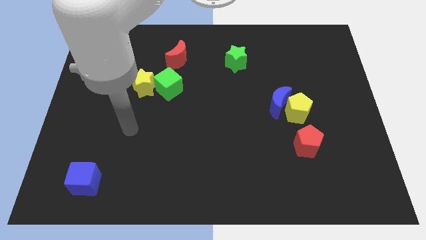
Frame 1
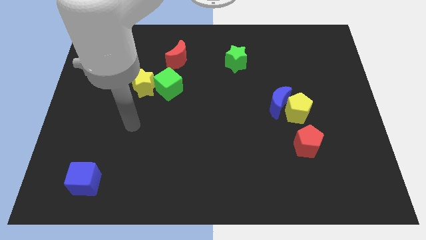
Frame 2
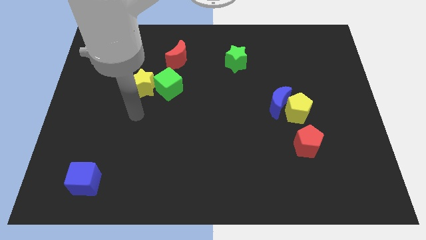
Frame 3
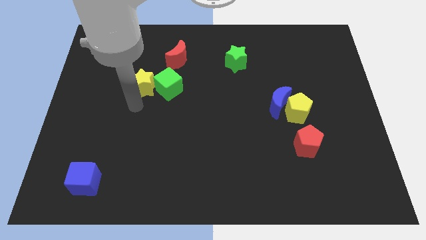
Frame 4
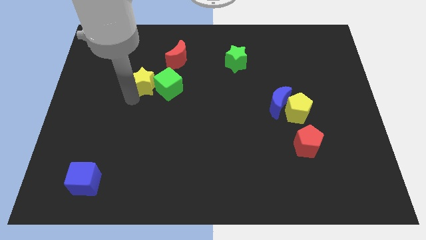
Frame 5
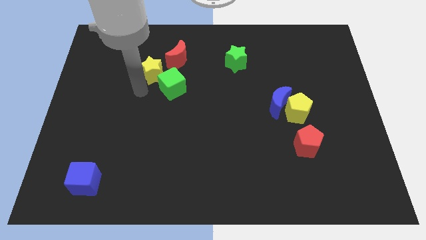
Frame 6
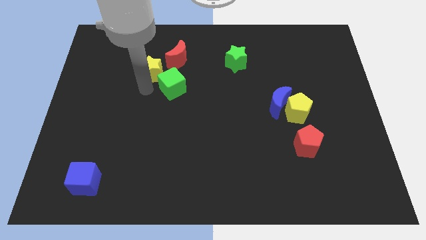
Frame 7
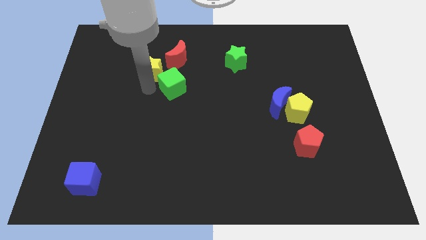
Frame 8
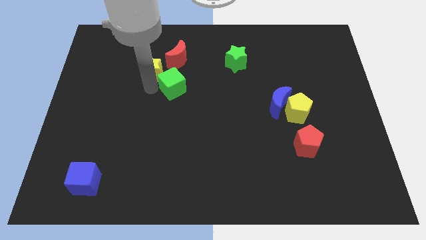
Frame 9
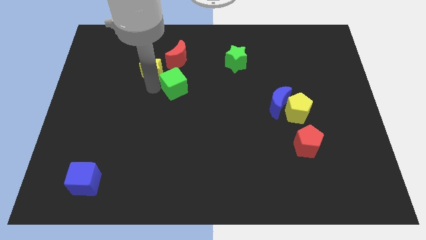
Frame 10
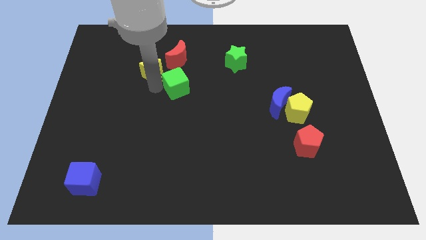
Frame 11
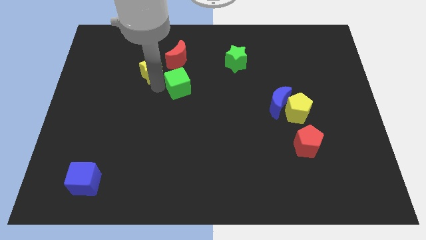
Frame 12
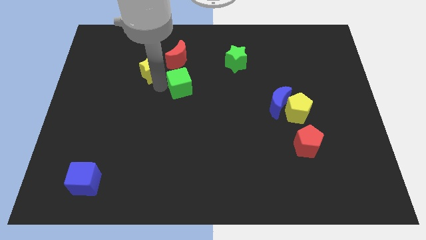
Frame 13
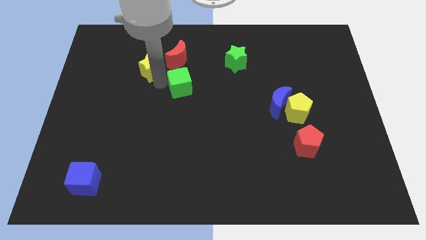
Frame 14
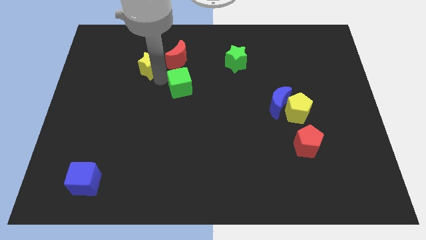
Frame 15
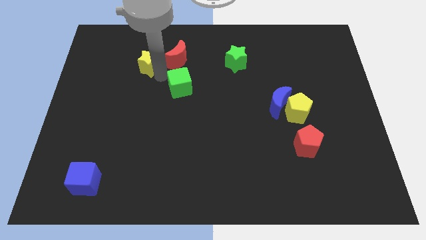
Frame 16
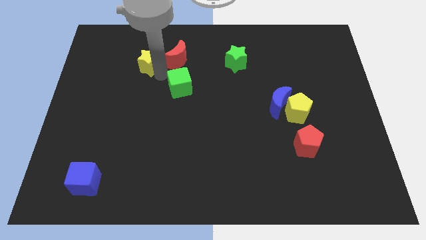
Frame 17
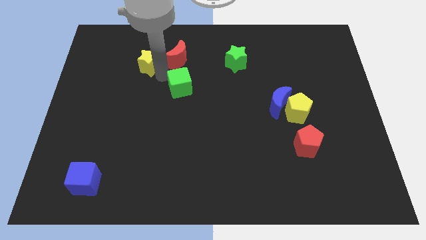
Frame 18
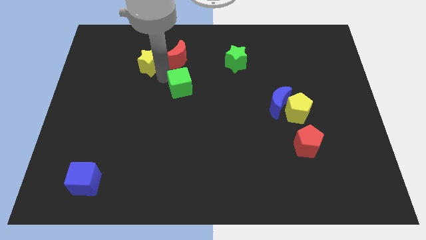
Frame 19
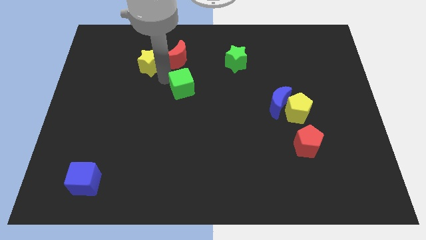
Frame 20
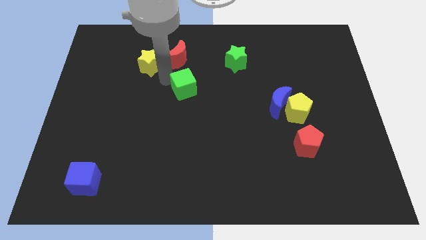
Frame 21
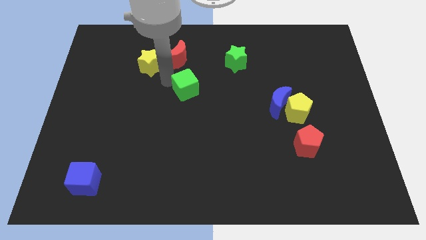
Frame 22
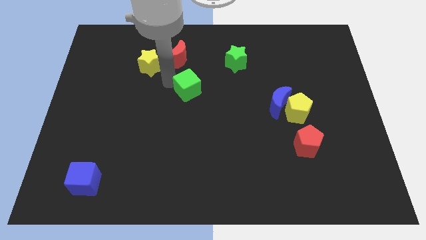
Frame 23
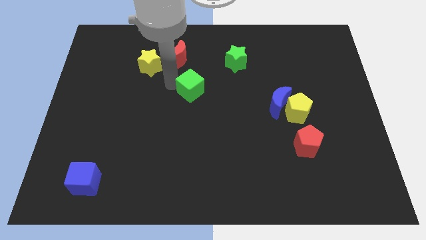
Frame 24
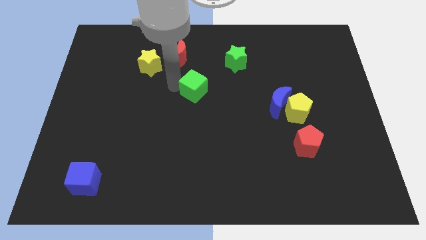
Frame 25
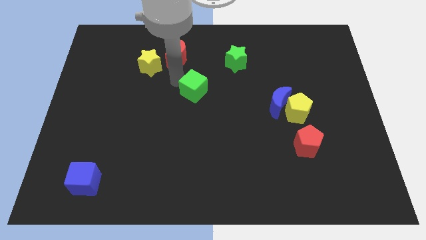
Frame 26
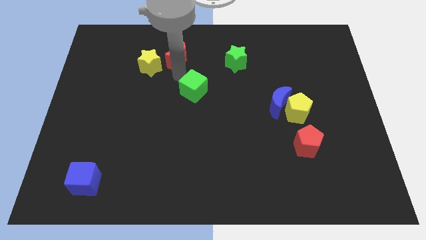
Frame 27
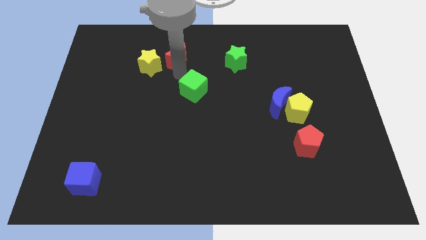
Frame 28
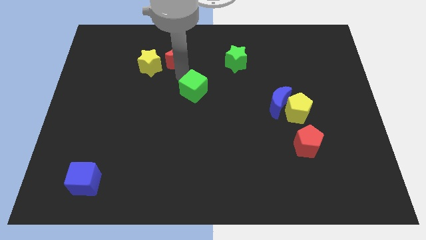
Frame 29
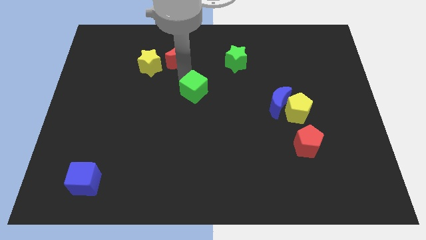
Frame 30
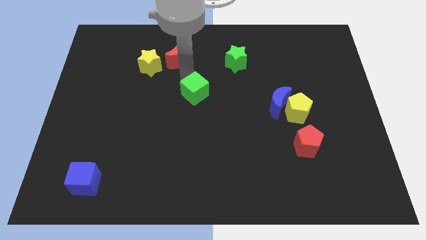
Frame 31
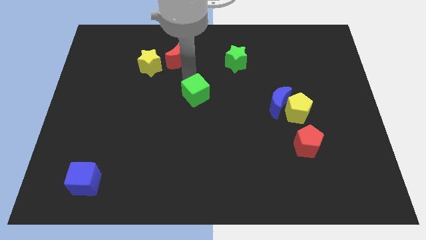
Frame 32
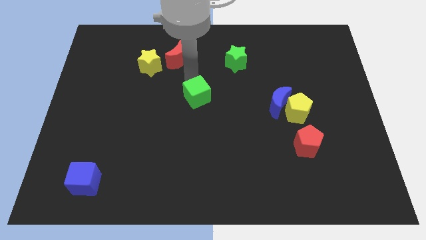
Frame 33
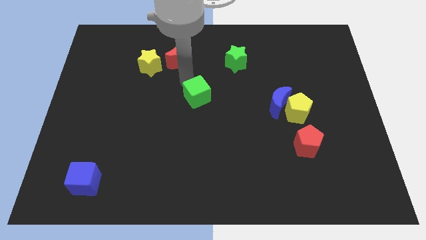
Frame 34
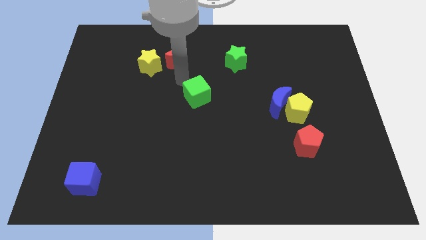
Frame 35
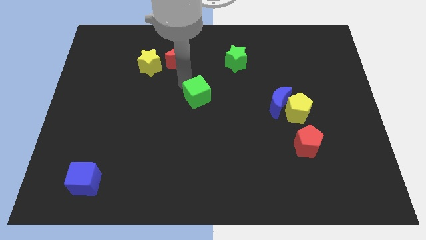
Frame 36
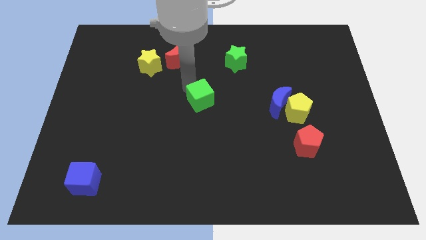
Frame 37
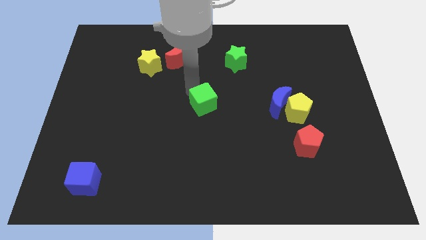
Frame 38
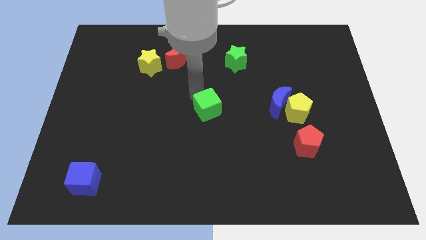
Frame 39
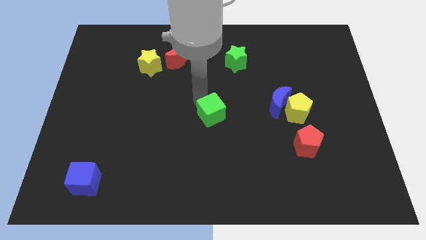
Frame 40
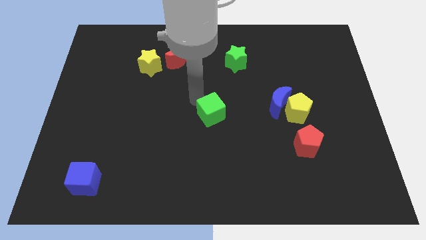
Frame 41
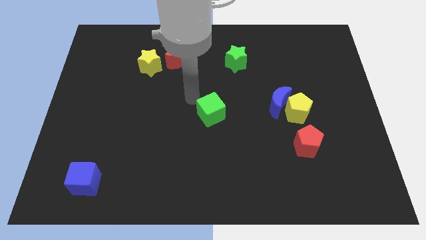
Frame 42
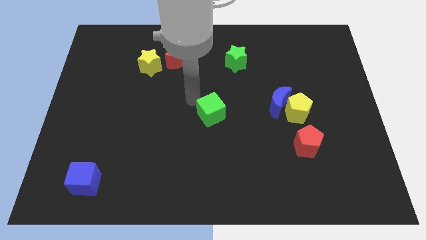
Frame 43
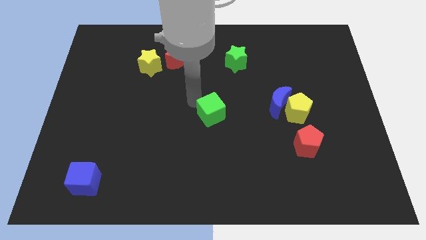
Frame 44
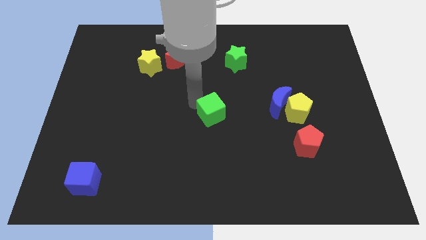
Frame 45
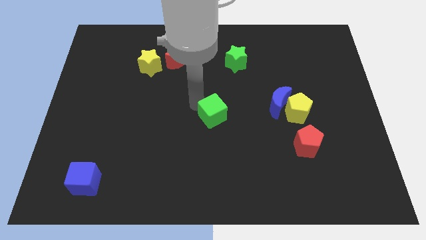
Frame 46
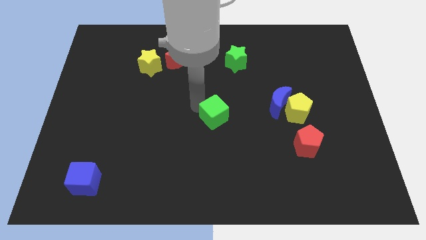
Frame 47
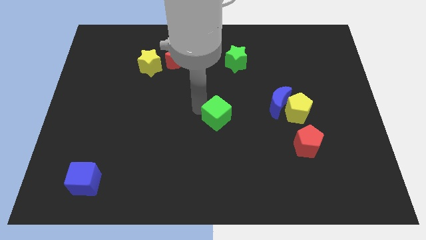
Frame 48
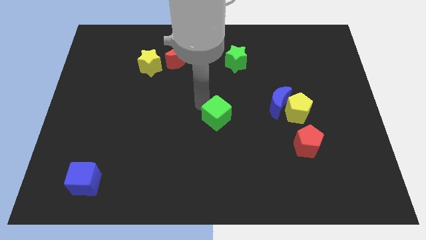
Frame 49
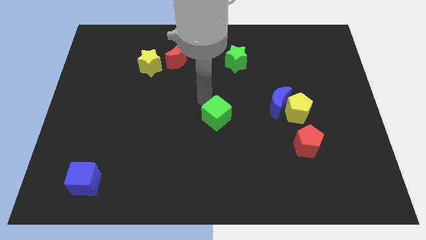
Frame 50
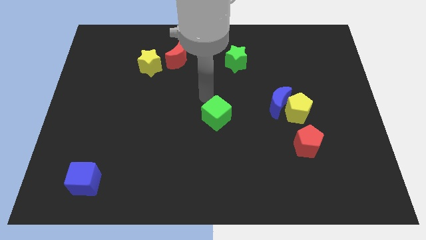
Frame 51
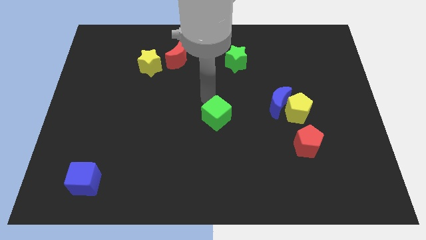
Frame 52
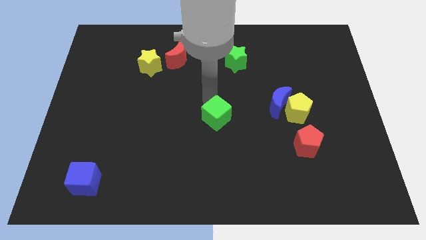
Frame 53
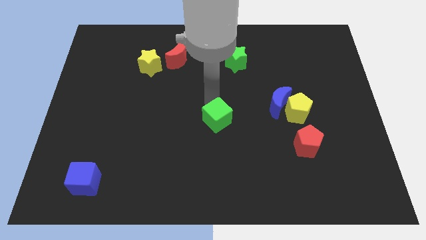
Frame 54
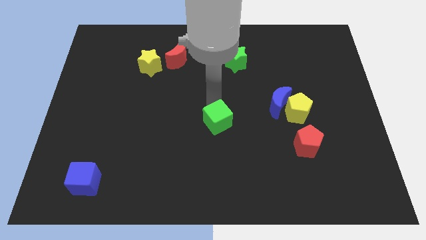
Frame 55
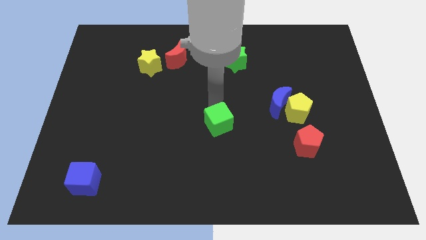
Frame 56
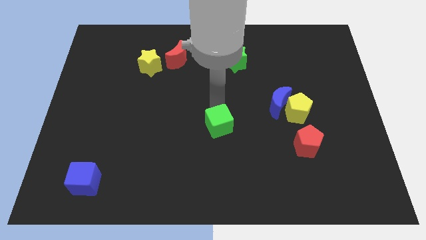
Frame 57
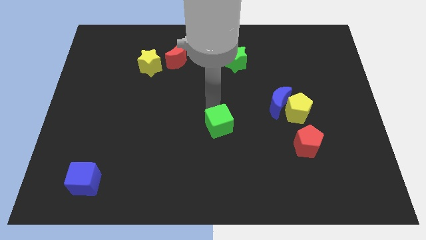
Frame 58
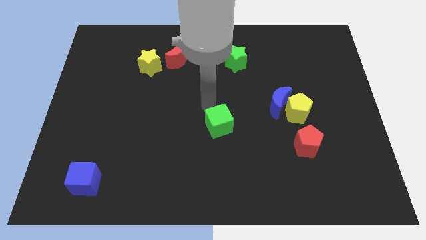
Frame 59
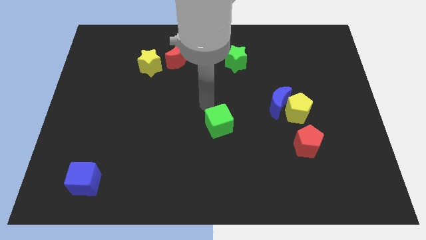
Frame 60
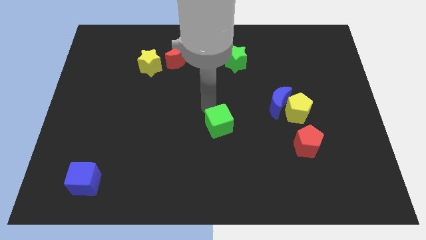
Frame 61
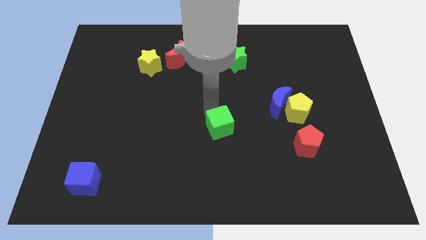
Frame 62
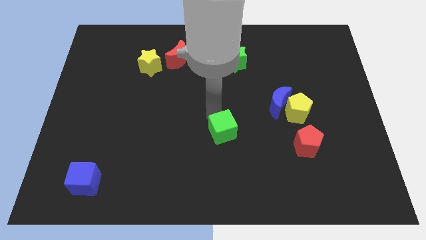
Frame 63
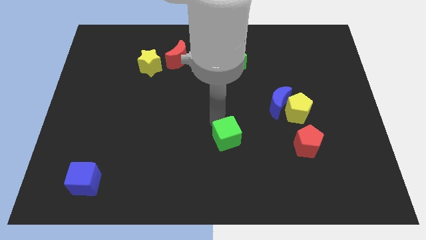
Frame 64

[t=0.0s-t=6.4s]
push the green cube downwards and then right

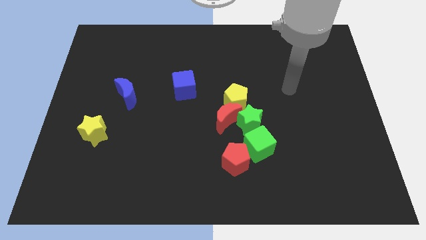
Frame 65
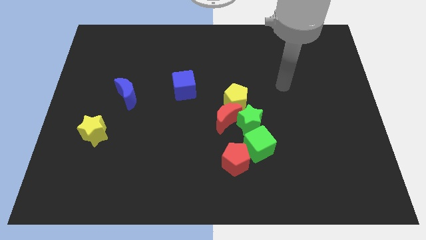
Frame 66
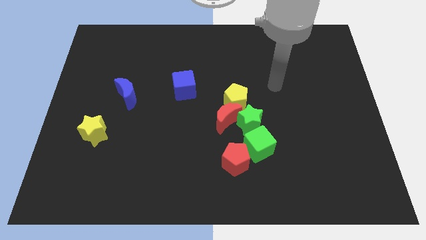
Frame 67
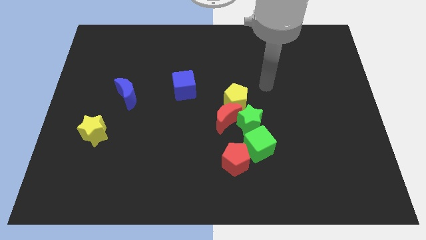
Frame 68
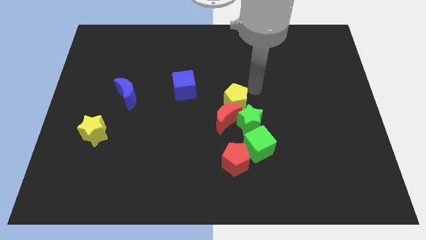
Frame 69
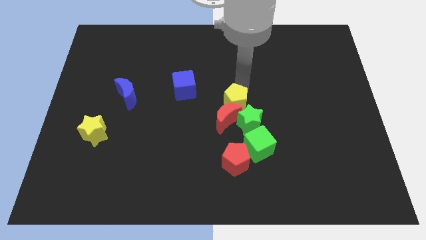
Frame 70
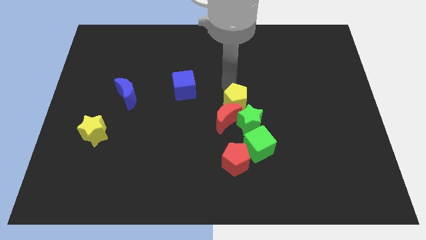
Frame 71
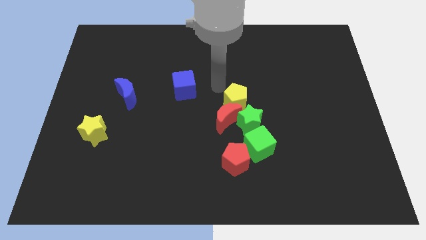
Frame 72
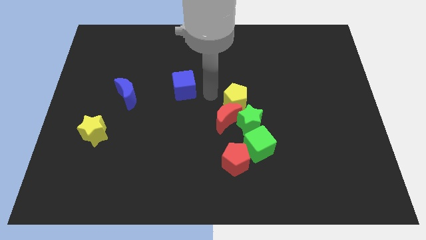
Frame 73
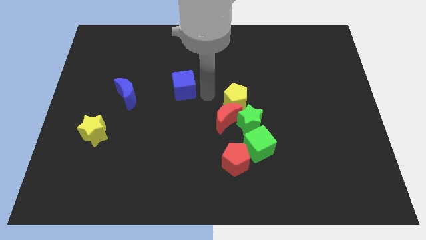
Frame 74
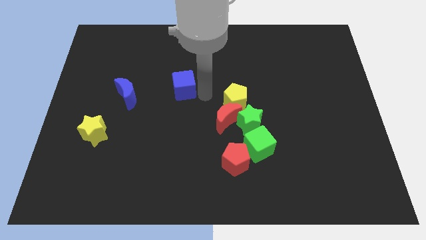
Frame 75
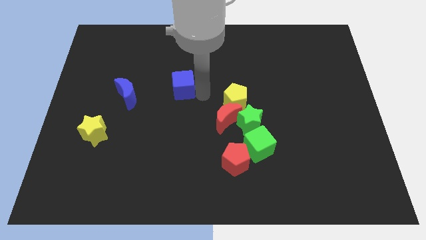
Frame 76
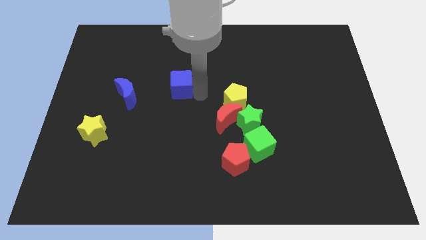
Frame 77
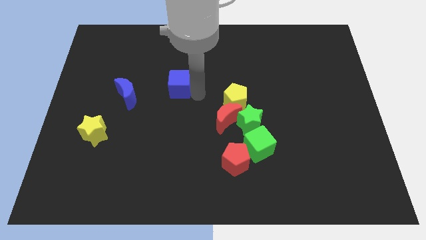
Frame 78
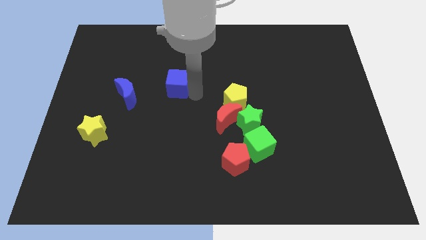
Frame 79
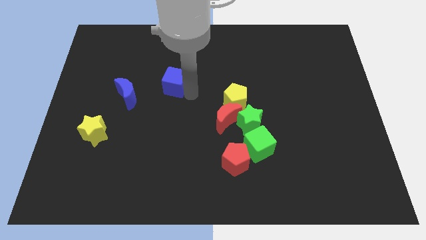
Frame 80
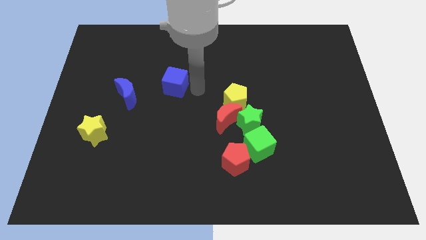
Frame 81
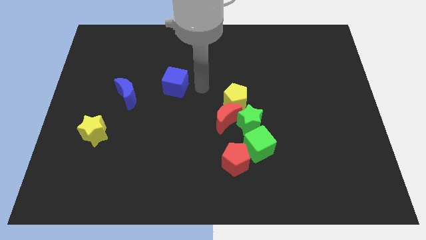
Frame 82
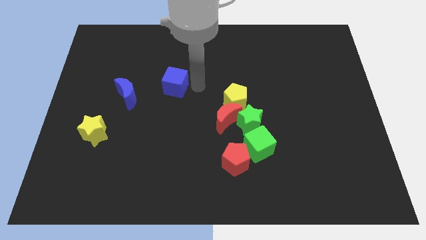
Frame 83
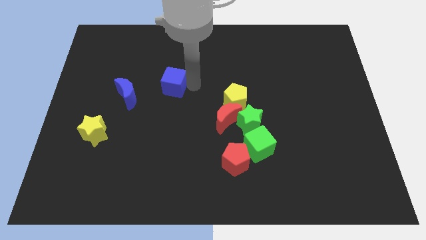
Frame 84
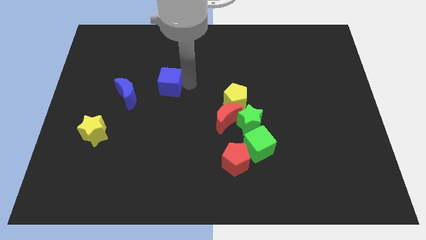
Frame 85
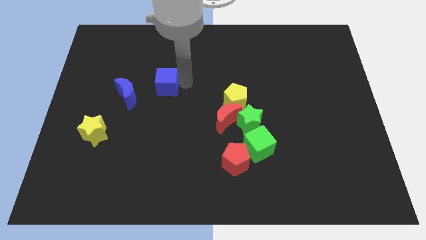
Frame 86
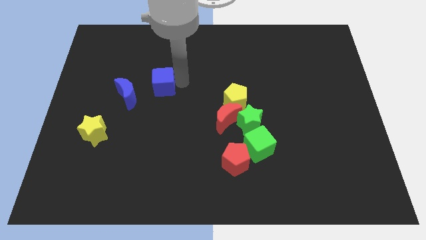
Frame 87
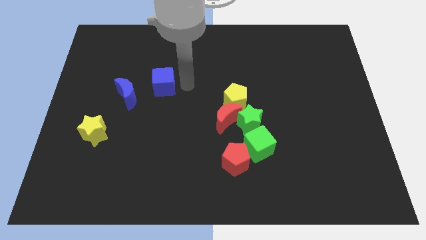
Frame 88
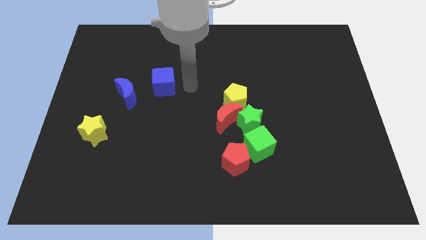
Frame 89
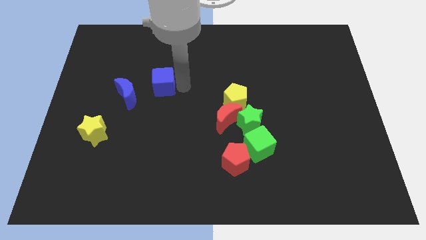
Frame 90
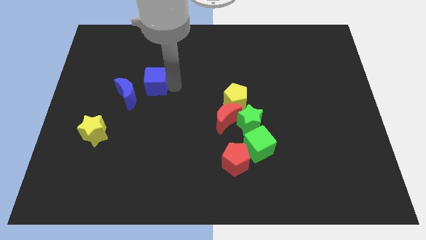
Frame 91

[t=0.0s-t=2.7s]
move the blue cube to the left a little bit
